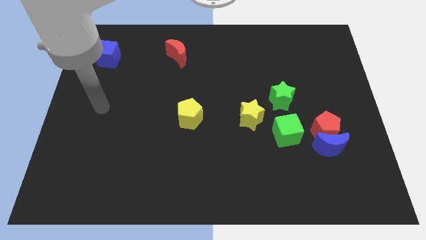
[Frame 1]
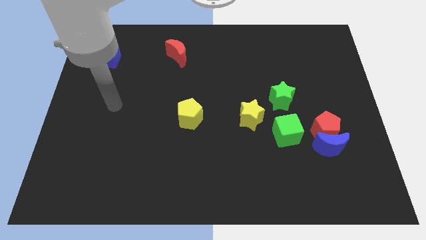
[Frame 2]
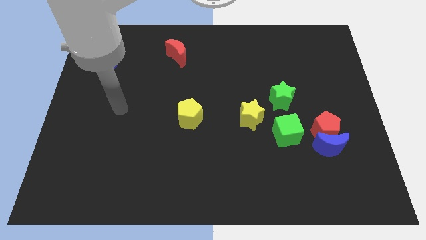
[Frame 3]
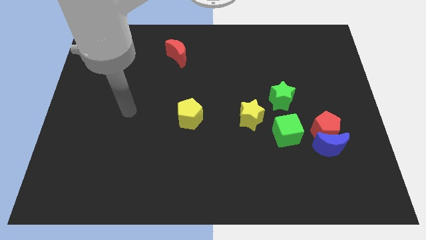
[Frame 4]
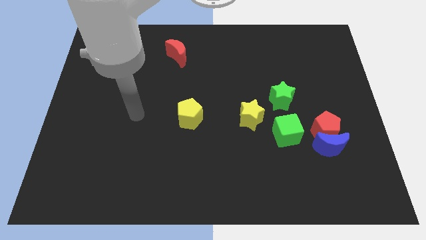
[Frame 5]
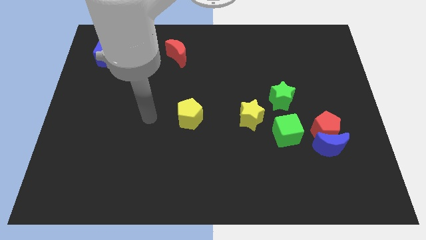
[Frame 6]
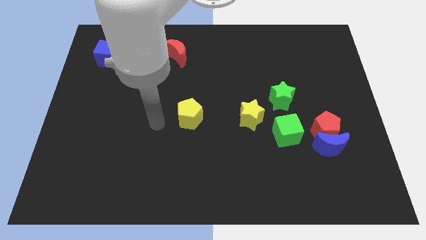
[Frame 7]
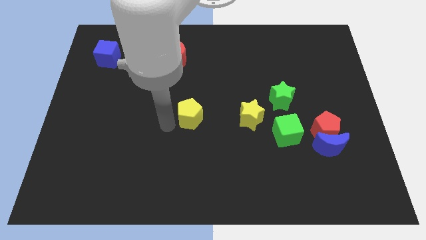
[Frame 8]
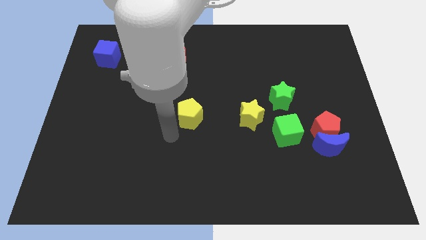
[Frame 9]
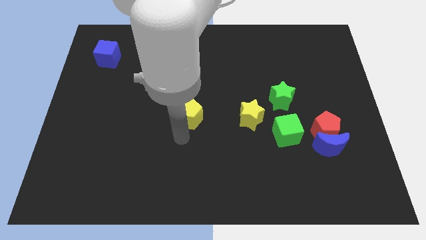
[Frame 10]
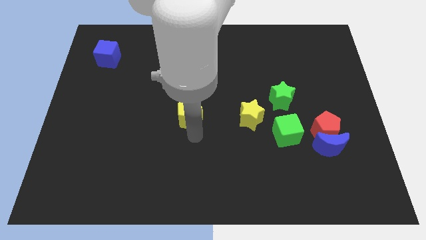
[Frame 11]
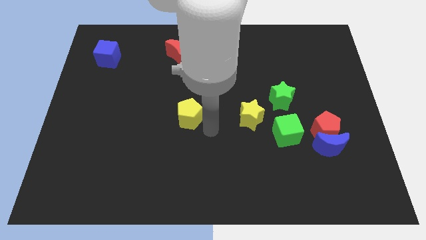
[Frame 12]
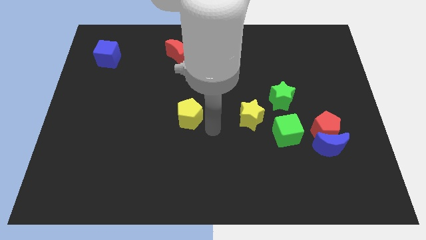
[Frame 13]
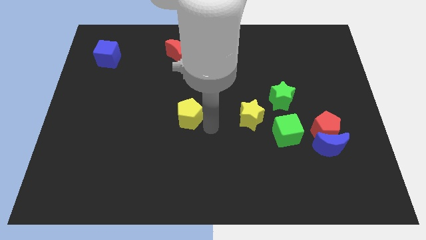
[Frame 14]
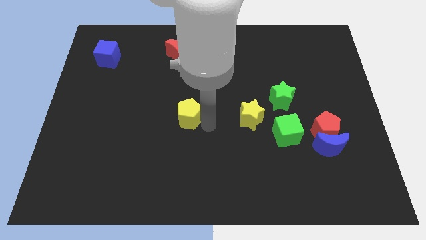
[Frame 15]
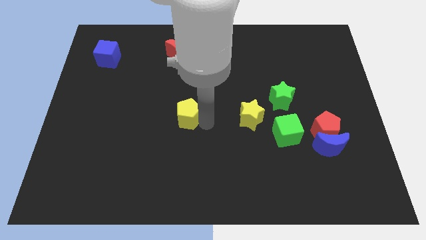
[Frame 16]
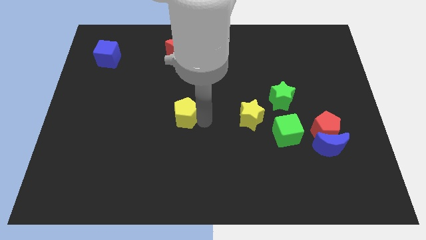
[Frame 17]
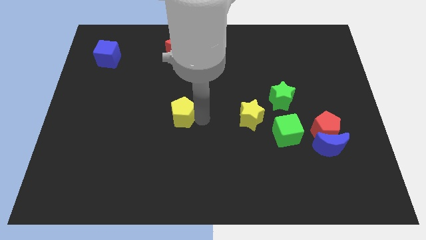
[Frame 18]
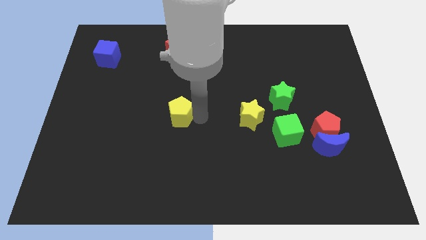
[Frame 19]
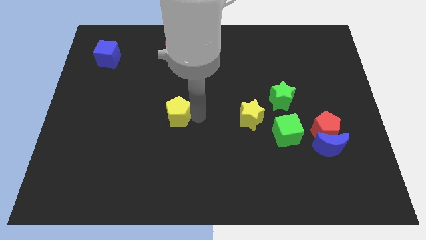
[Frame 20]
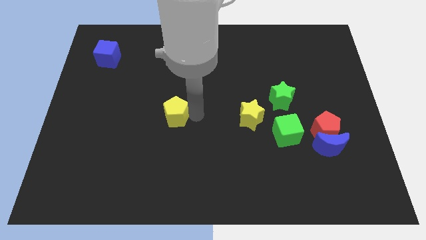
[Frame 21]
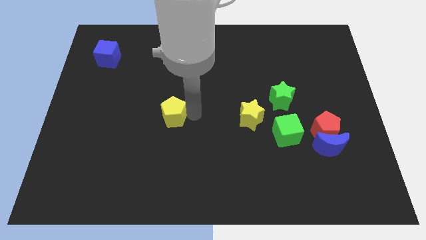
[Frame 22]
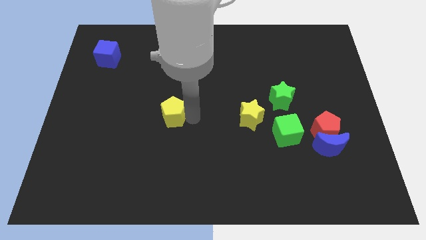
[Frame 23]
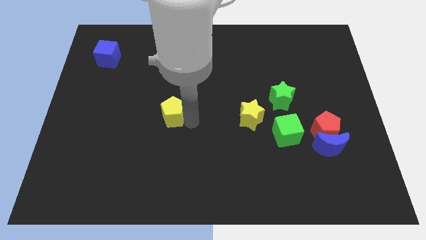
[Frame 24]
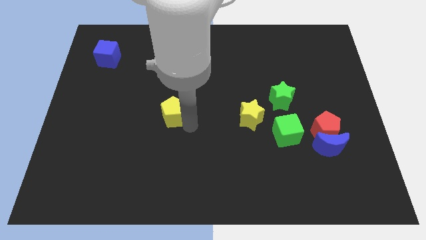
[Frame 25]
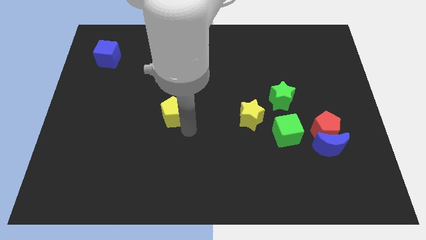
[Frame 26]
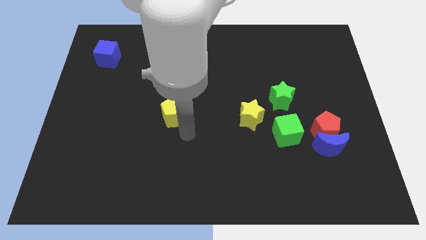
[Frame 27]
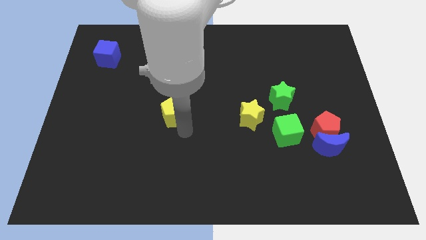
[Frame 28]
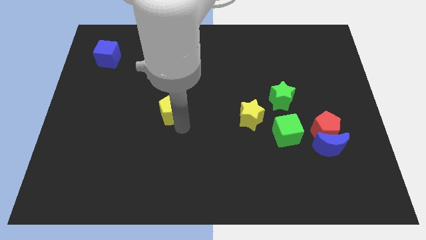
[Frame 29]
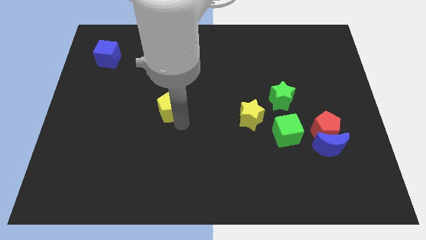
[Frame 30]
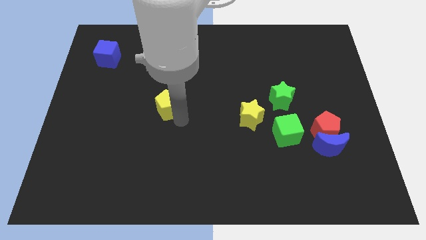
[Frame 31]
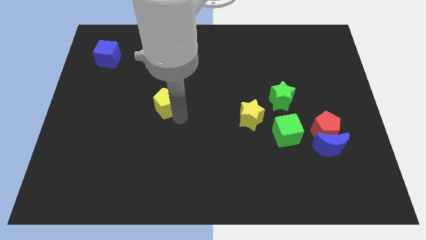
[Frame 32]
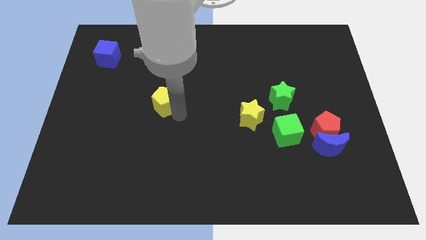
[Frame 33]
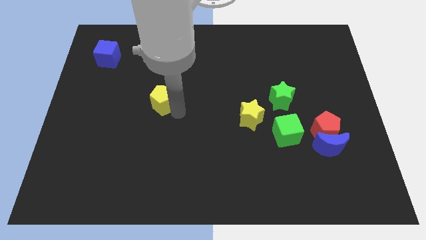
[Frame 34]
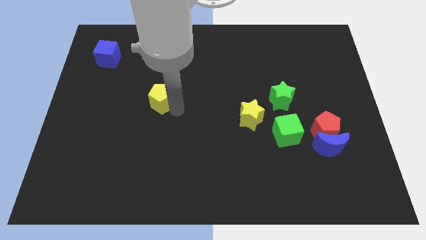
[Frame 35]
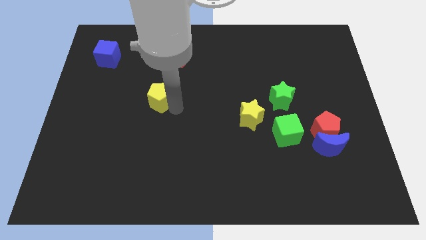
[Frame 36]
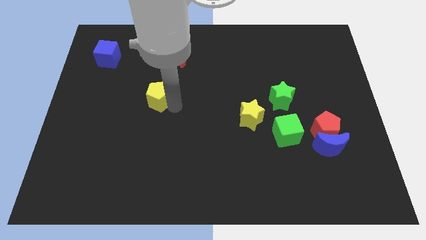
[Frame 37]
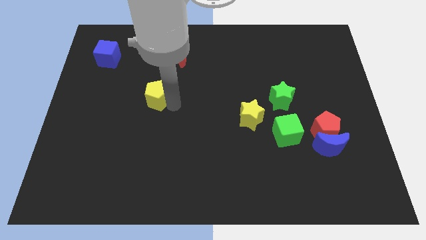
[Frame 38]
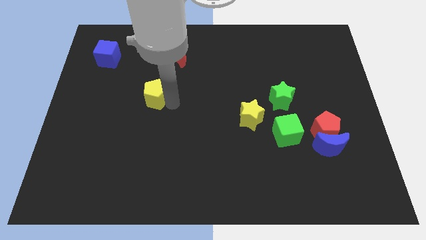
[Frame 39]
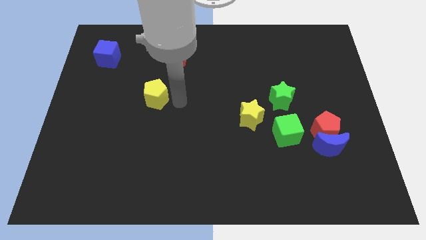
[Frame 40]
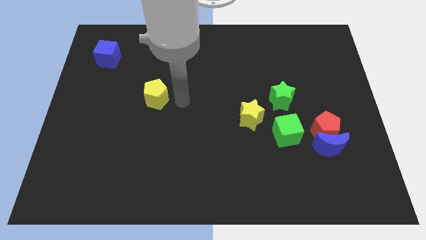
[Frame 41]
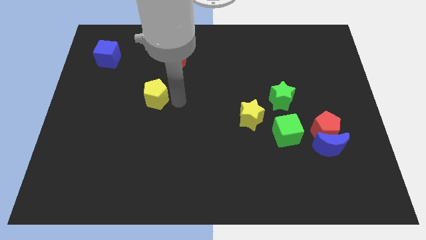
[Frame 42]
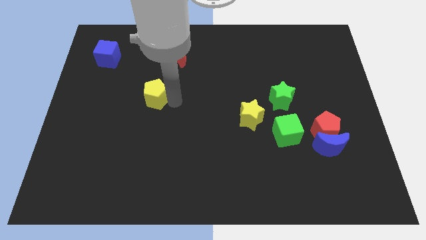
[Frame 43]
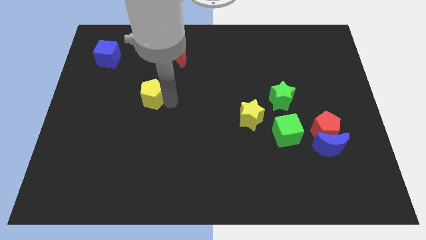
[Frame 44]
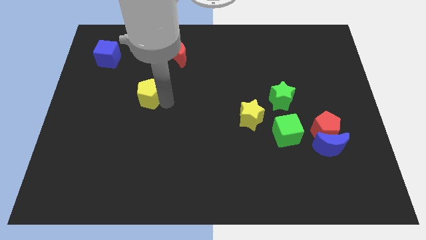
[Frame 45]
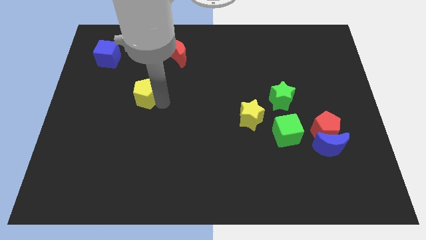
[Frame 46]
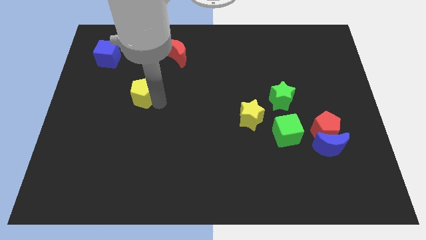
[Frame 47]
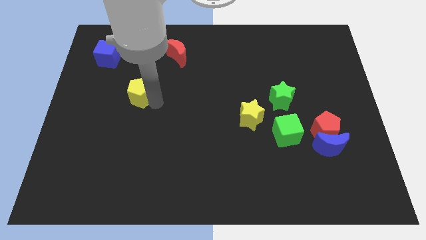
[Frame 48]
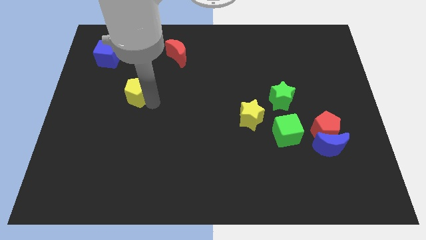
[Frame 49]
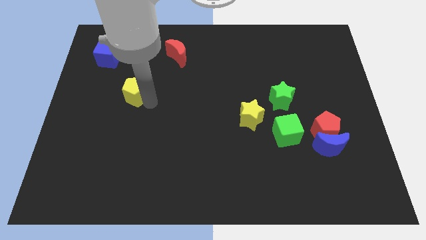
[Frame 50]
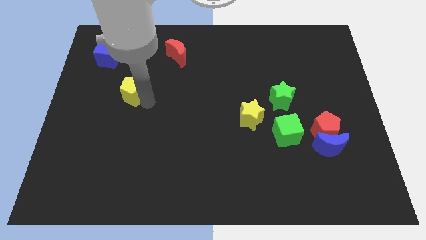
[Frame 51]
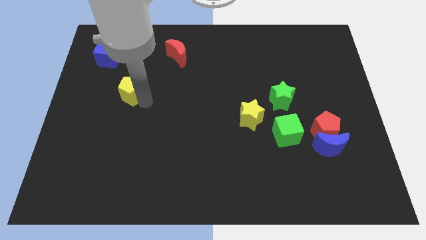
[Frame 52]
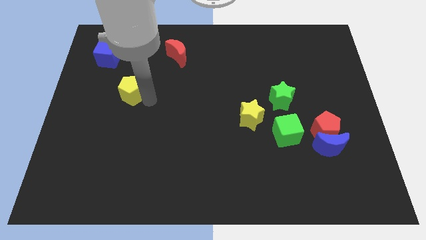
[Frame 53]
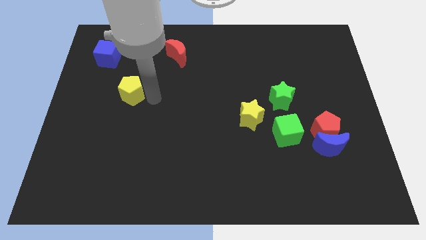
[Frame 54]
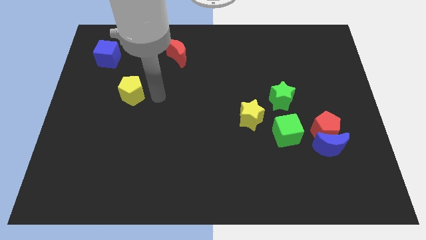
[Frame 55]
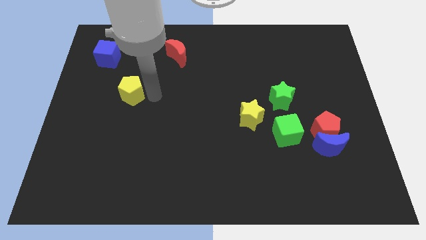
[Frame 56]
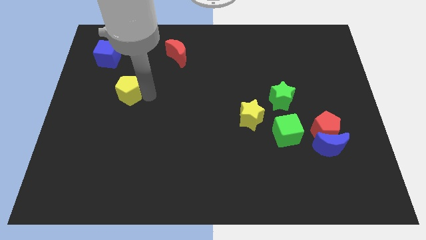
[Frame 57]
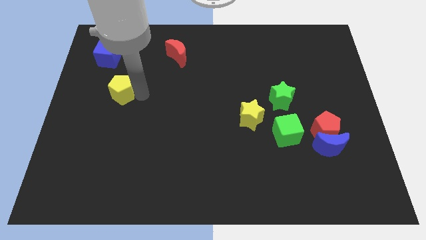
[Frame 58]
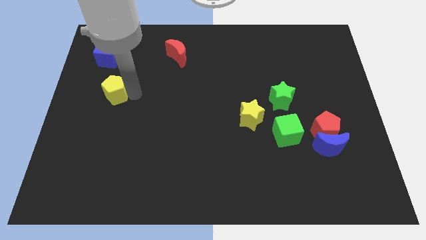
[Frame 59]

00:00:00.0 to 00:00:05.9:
push the yellow pentagon below the blue cube

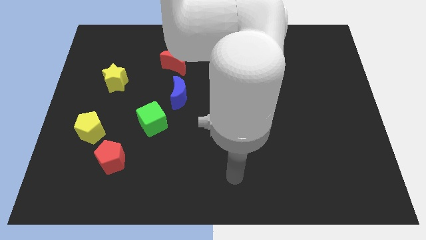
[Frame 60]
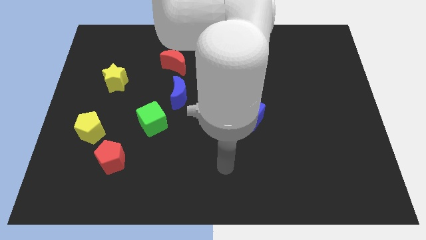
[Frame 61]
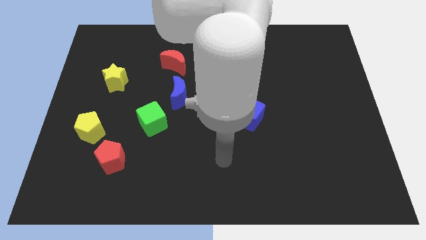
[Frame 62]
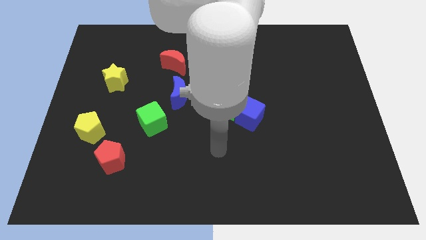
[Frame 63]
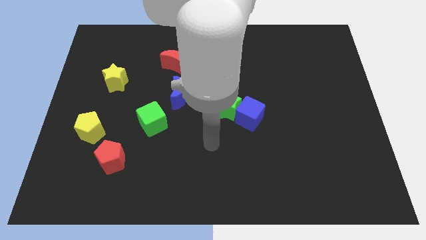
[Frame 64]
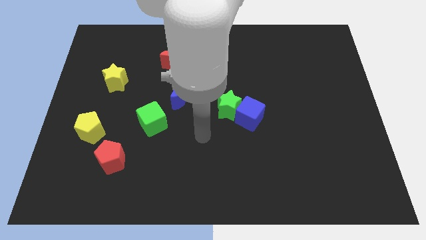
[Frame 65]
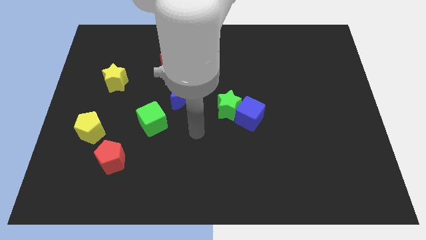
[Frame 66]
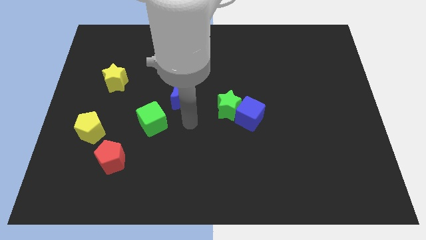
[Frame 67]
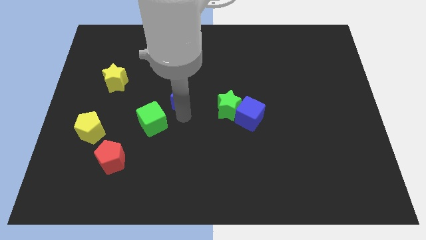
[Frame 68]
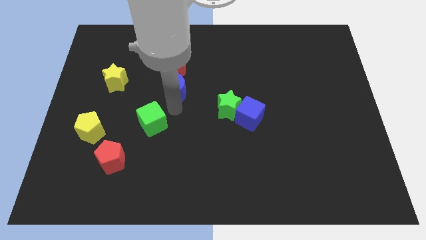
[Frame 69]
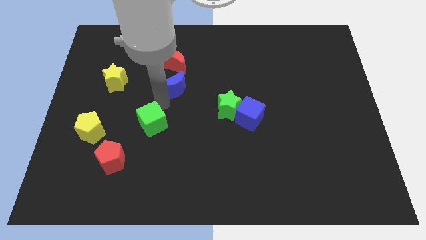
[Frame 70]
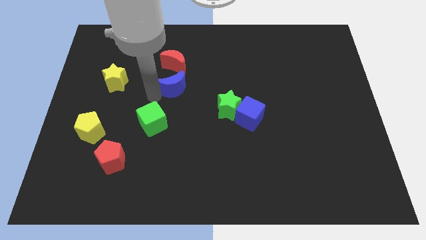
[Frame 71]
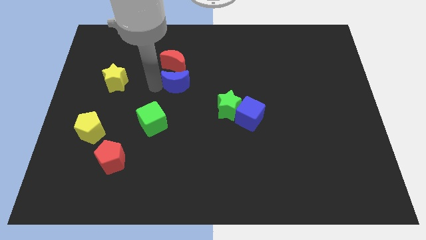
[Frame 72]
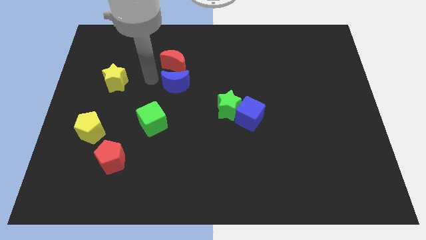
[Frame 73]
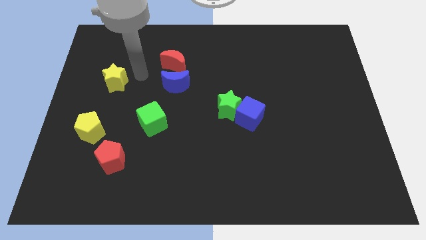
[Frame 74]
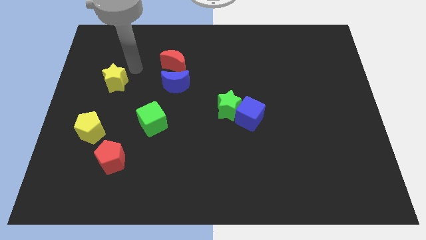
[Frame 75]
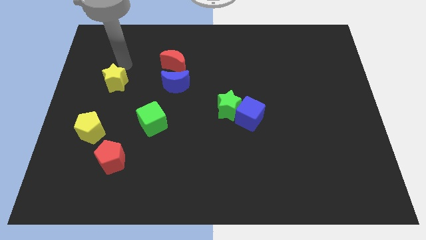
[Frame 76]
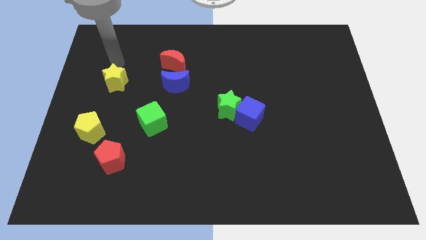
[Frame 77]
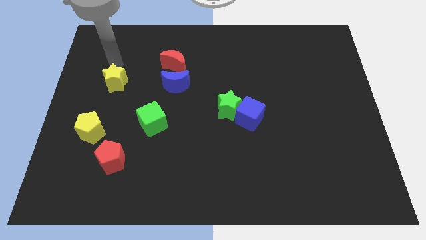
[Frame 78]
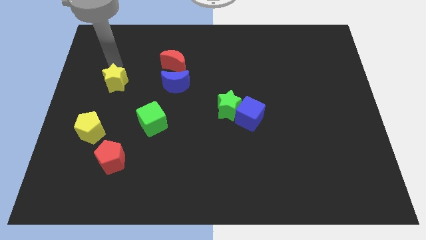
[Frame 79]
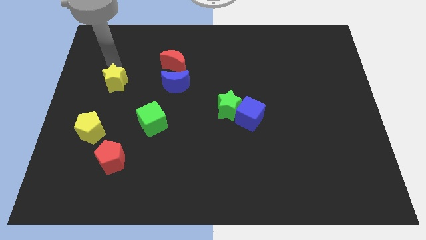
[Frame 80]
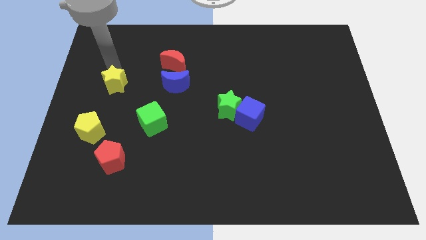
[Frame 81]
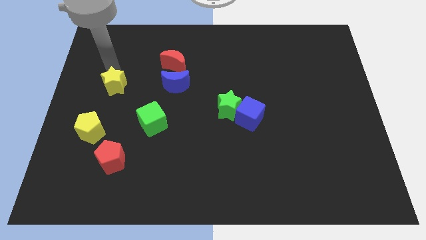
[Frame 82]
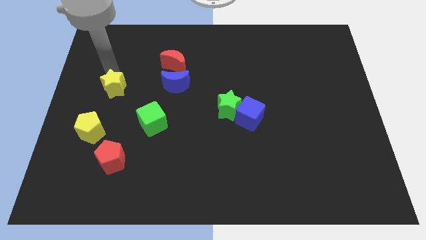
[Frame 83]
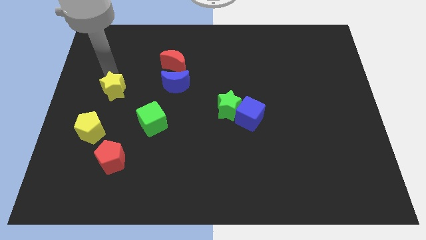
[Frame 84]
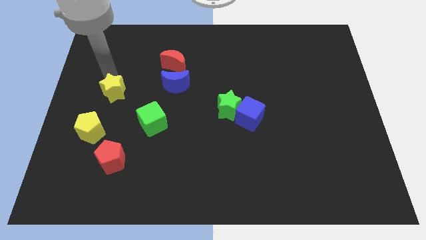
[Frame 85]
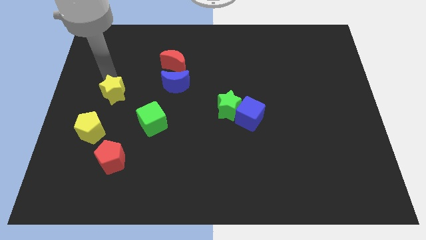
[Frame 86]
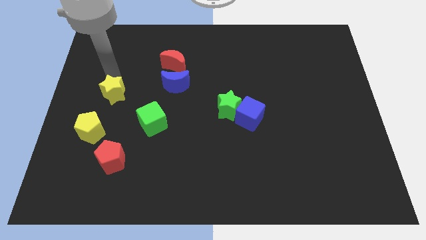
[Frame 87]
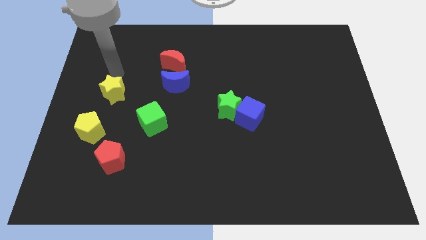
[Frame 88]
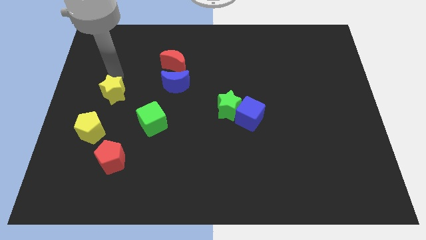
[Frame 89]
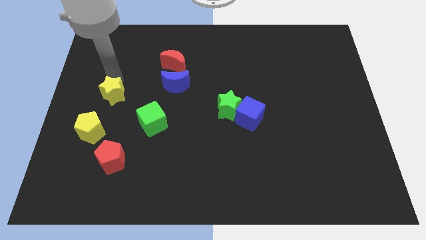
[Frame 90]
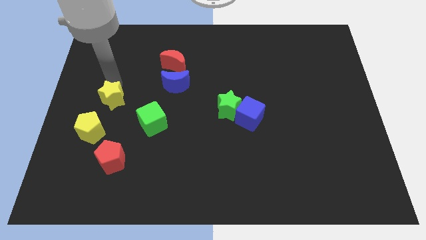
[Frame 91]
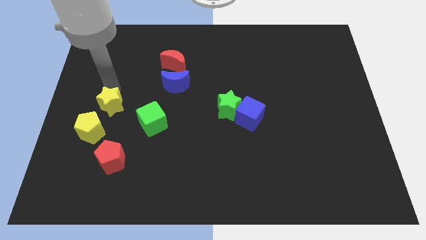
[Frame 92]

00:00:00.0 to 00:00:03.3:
move the yellow star above the red pentagon
